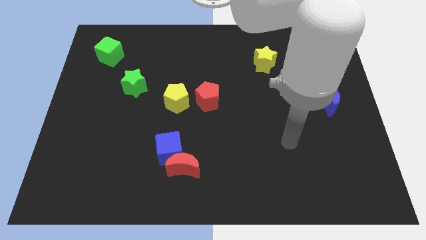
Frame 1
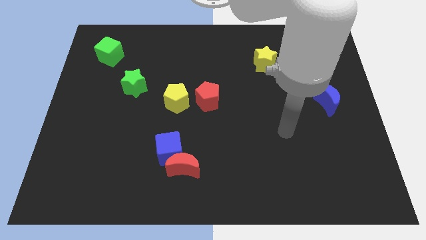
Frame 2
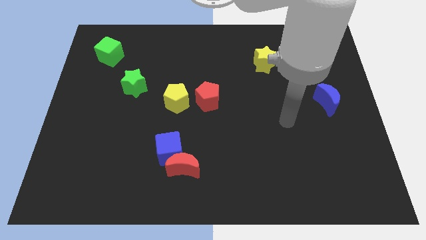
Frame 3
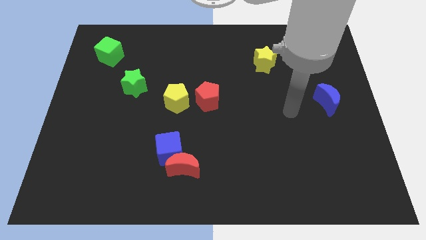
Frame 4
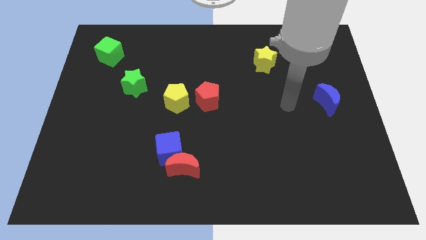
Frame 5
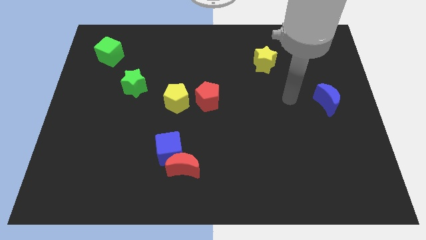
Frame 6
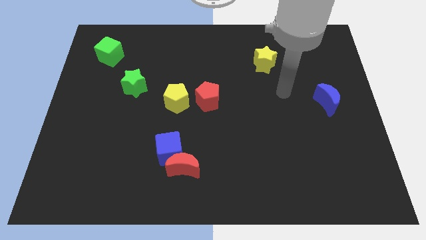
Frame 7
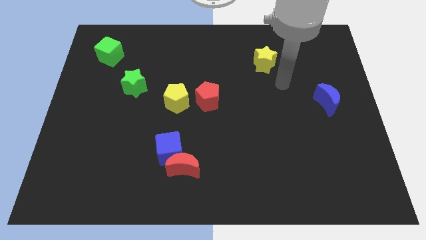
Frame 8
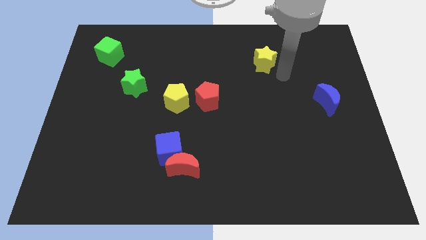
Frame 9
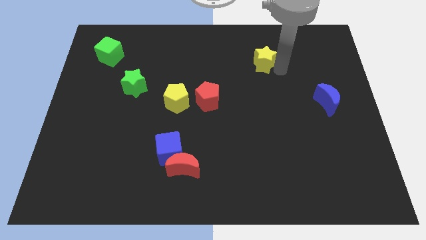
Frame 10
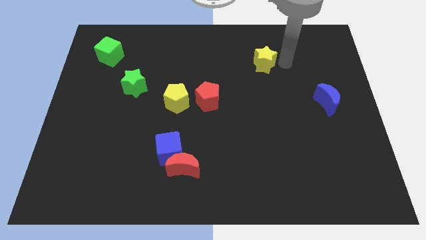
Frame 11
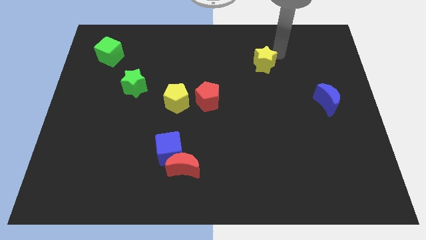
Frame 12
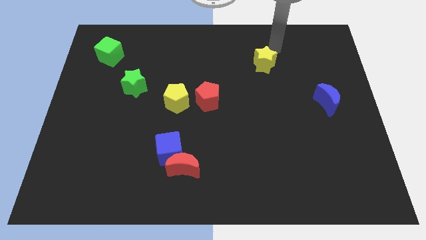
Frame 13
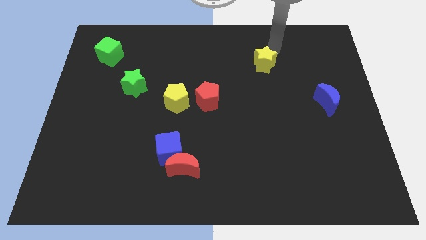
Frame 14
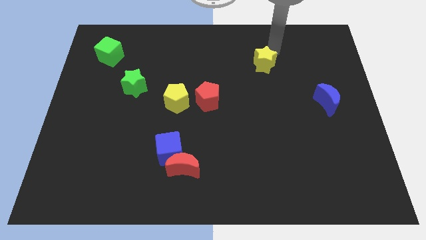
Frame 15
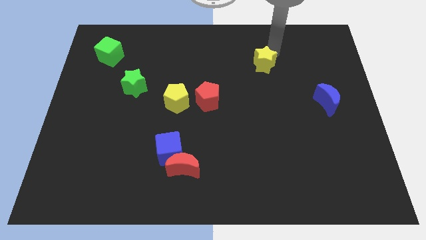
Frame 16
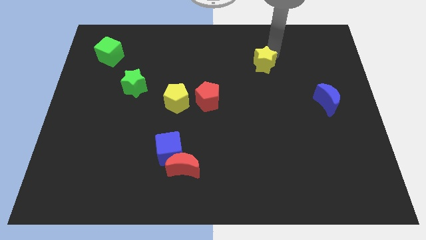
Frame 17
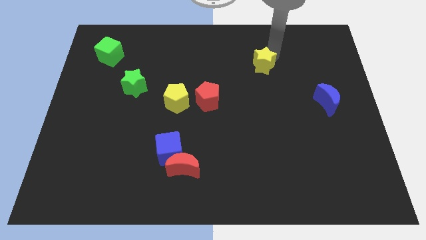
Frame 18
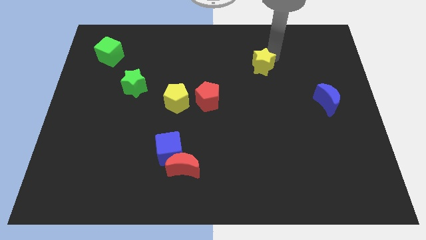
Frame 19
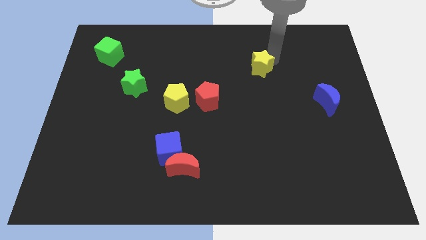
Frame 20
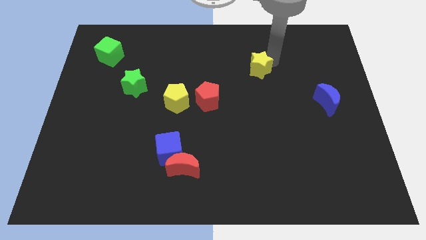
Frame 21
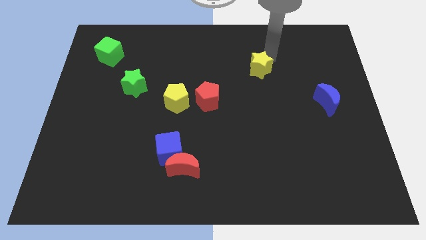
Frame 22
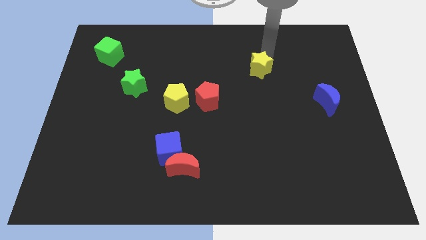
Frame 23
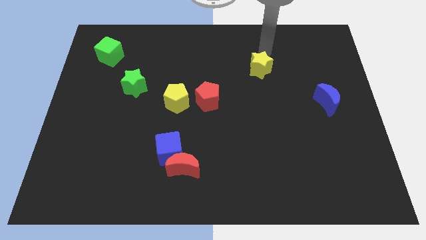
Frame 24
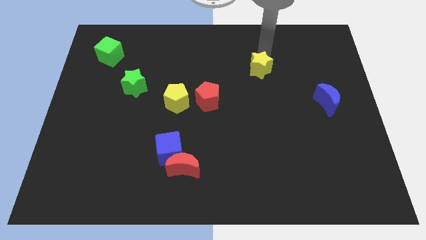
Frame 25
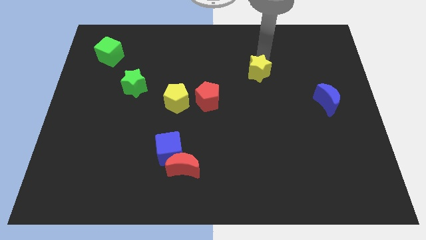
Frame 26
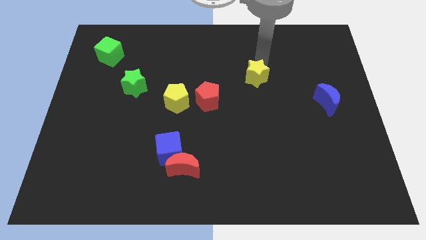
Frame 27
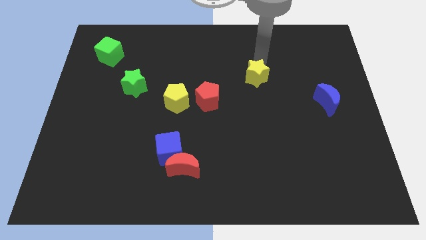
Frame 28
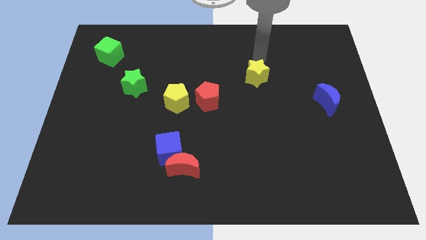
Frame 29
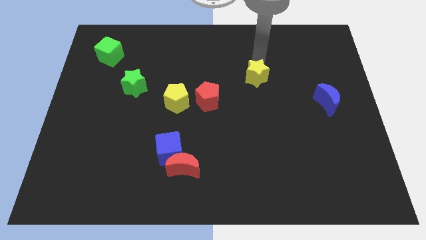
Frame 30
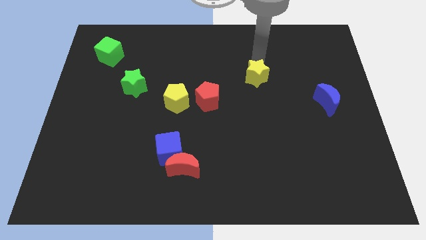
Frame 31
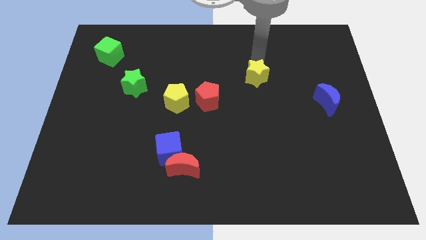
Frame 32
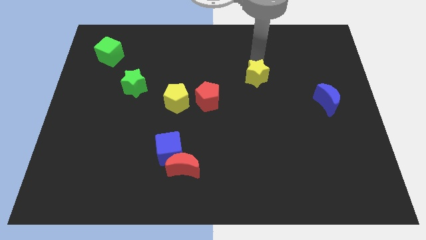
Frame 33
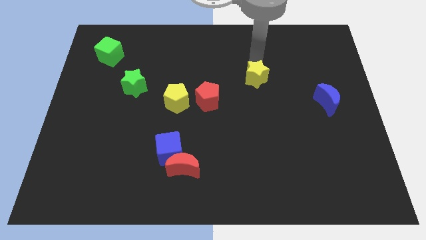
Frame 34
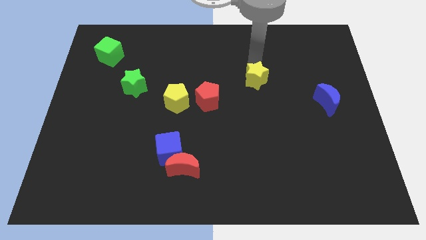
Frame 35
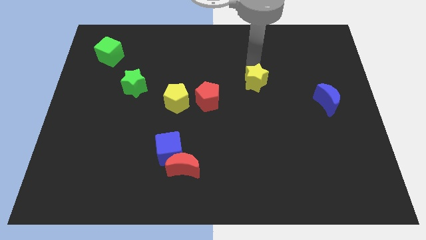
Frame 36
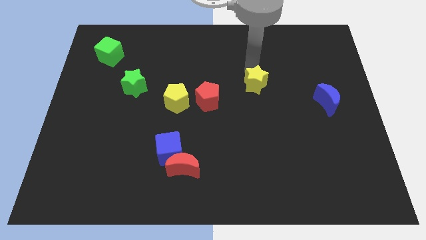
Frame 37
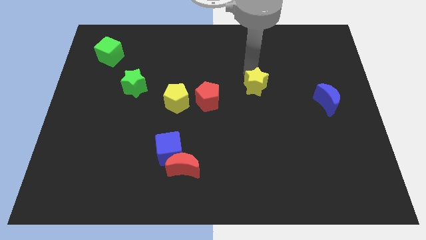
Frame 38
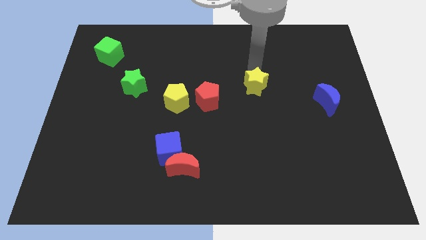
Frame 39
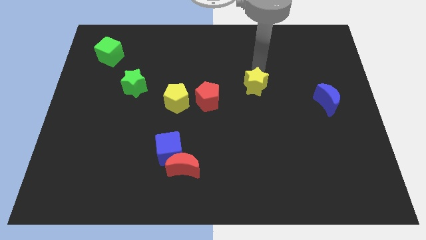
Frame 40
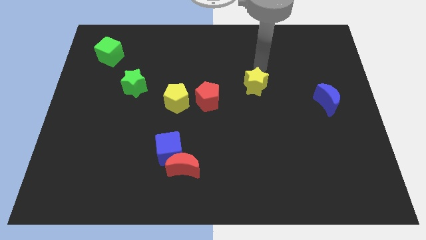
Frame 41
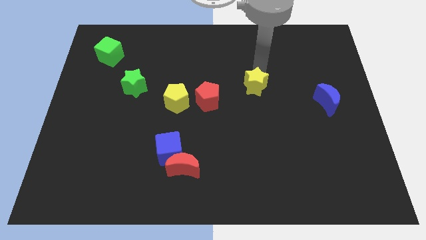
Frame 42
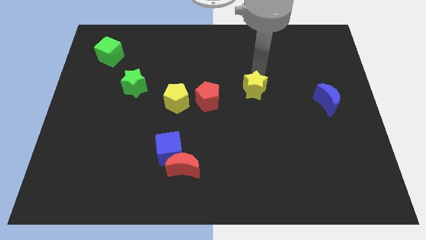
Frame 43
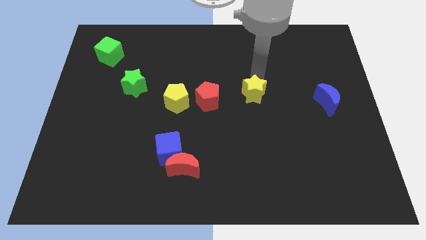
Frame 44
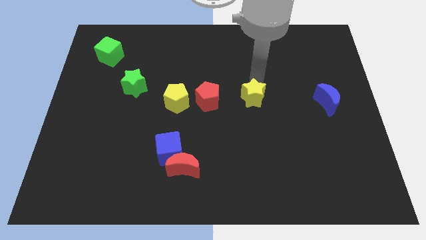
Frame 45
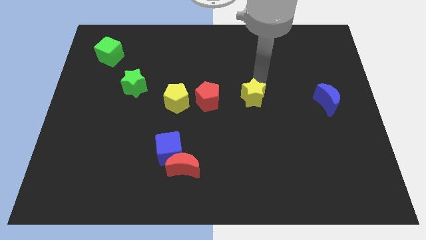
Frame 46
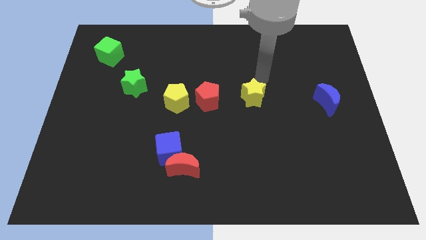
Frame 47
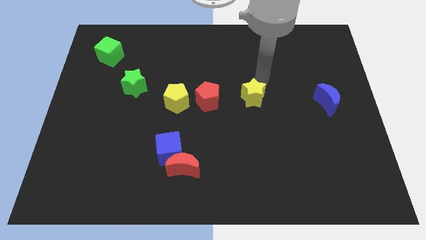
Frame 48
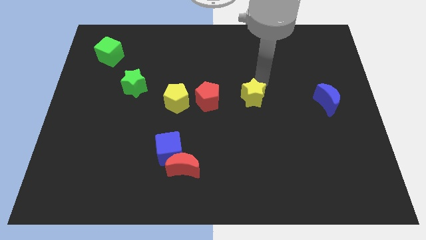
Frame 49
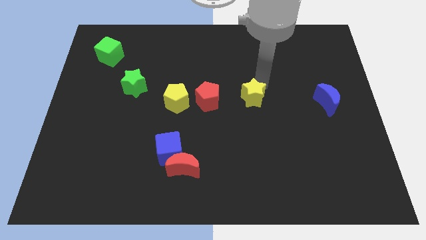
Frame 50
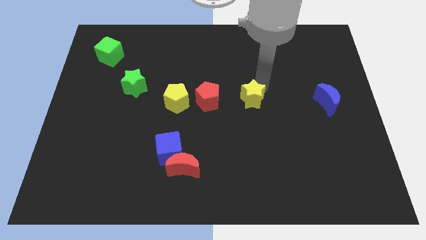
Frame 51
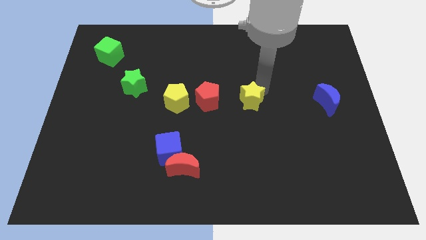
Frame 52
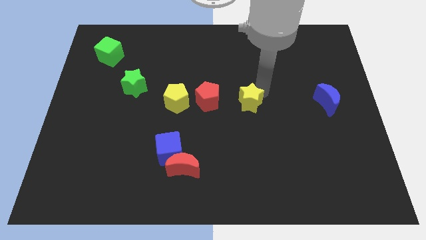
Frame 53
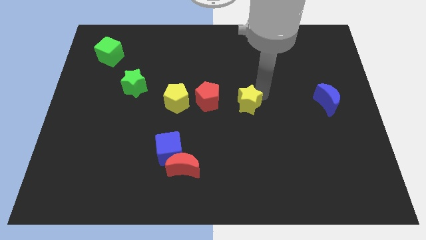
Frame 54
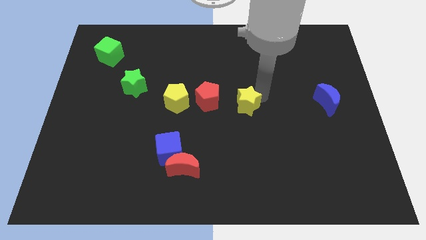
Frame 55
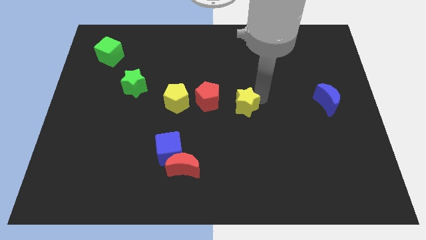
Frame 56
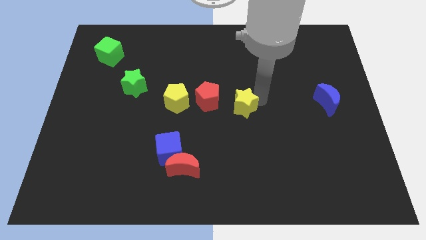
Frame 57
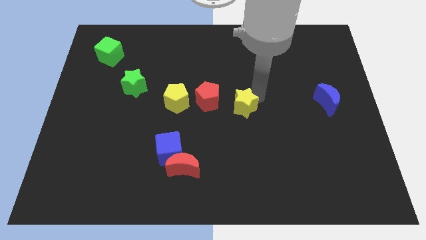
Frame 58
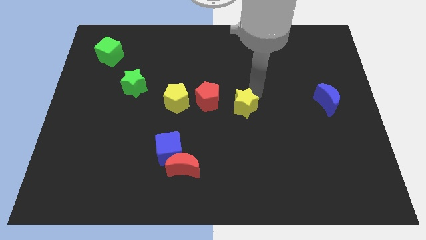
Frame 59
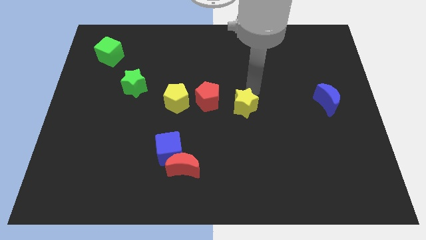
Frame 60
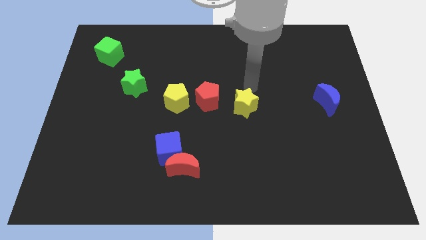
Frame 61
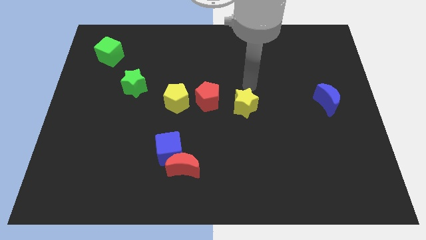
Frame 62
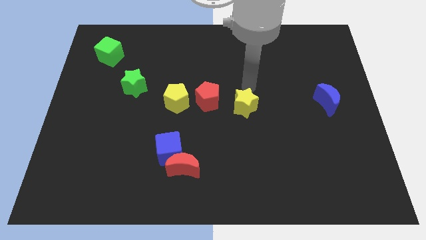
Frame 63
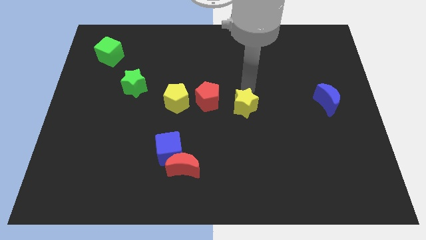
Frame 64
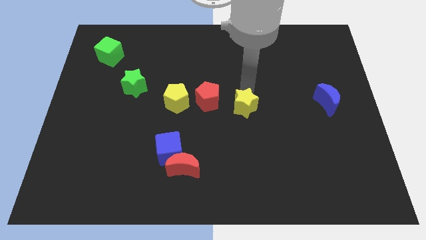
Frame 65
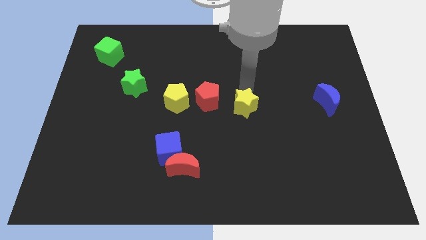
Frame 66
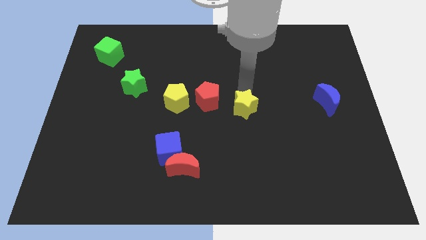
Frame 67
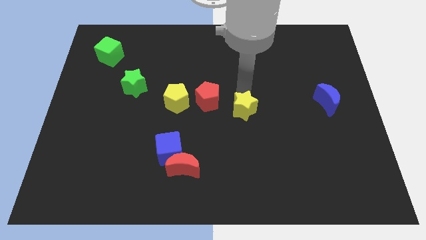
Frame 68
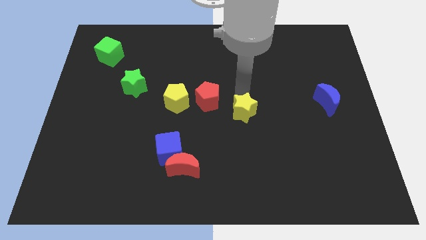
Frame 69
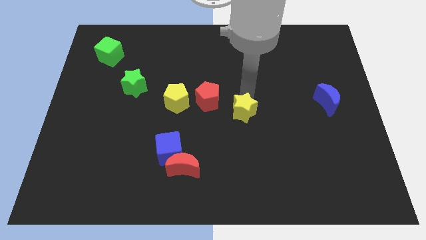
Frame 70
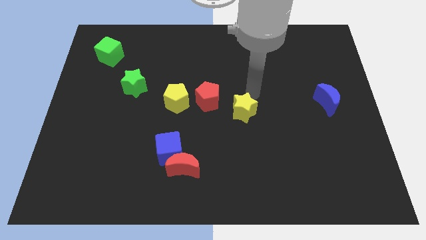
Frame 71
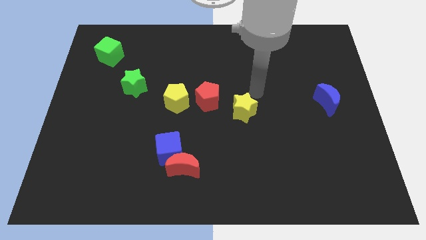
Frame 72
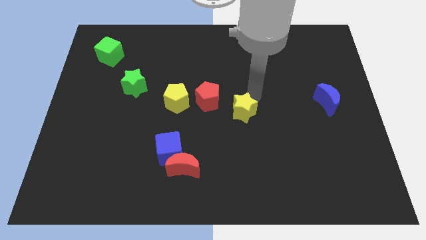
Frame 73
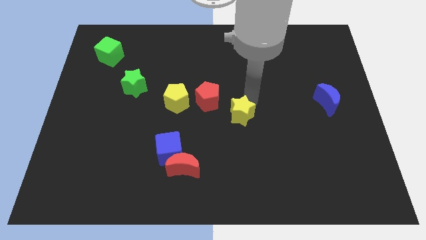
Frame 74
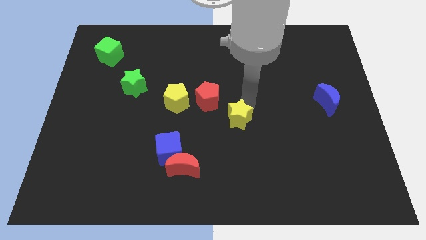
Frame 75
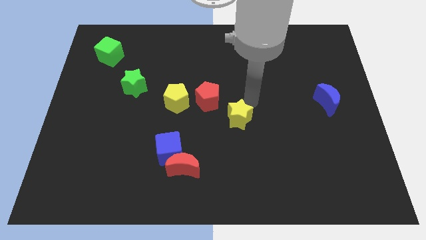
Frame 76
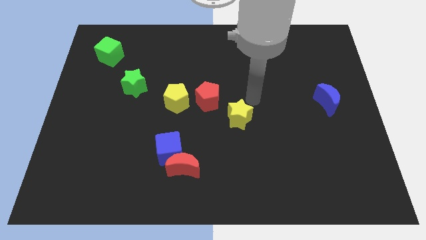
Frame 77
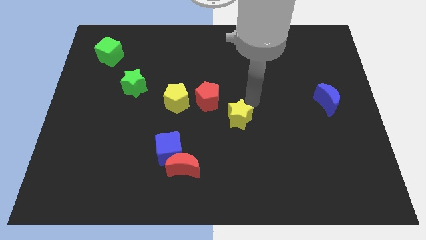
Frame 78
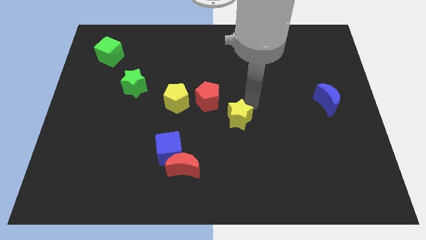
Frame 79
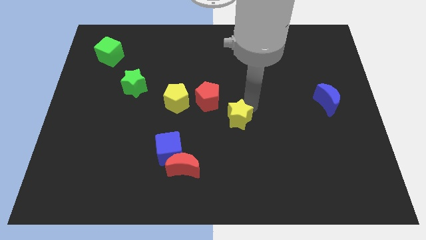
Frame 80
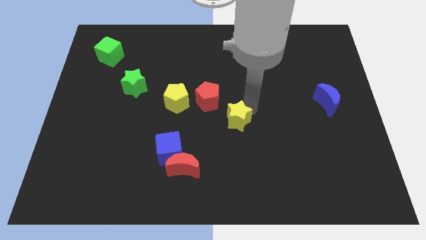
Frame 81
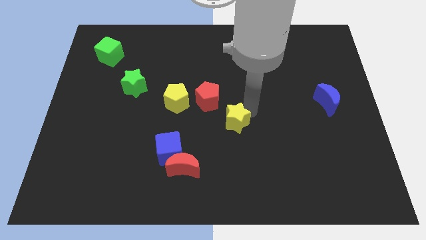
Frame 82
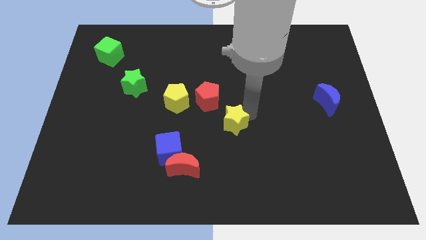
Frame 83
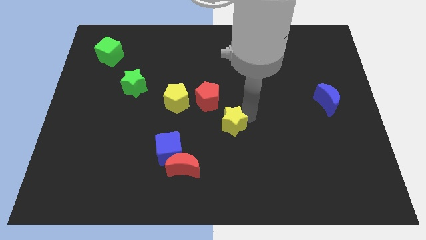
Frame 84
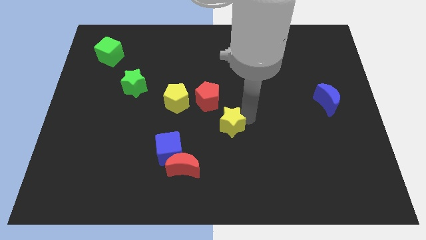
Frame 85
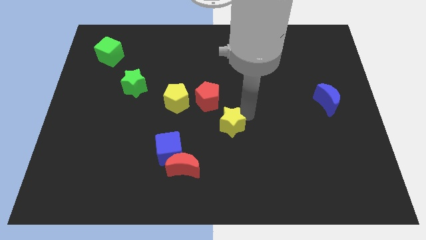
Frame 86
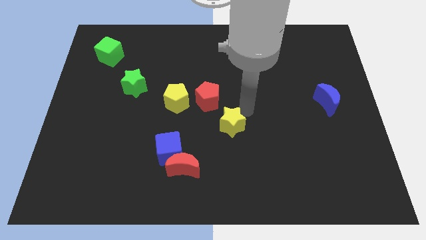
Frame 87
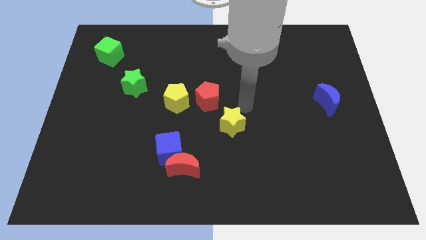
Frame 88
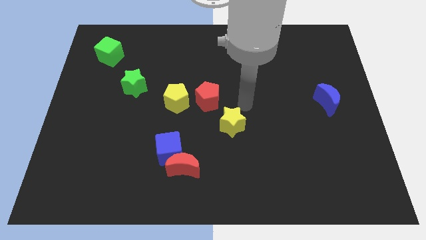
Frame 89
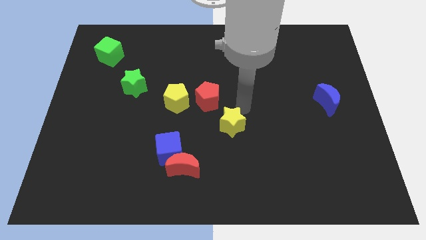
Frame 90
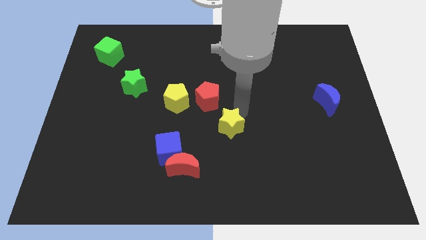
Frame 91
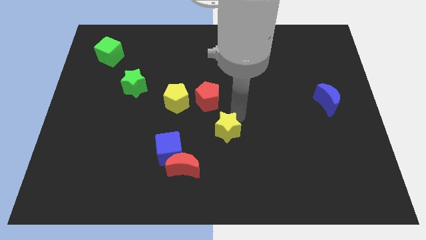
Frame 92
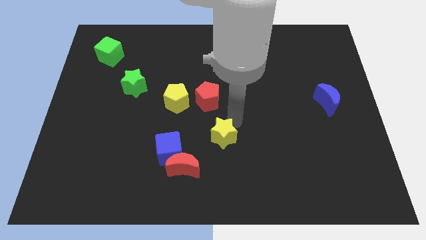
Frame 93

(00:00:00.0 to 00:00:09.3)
move the yellow star to the top right of the red moon
